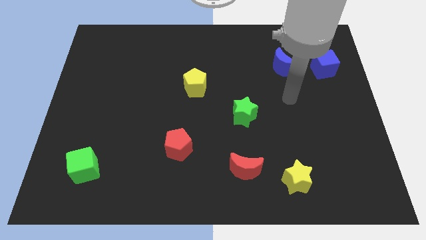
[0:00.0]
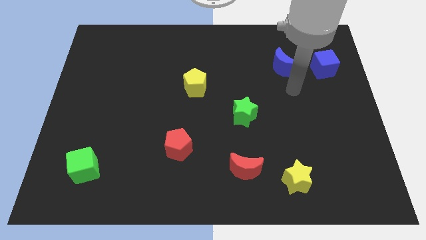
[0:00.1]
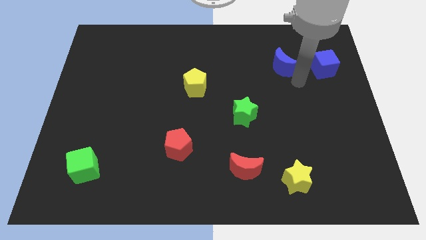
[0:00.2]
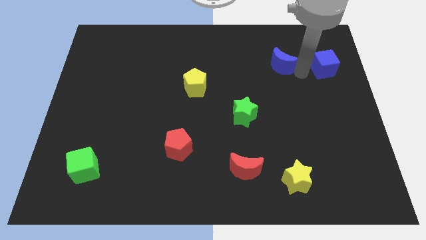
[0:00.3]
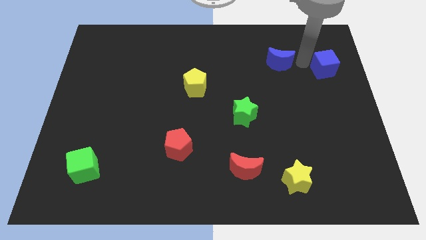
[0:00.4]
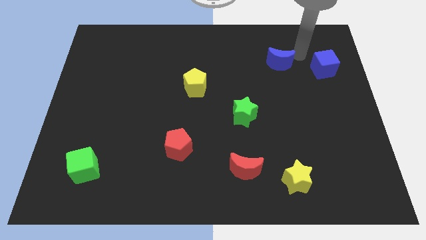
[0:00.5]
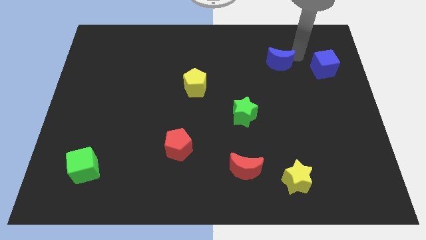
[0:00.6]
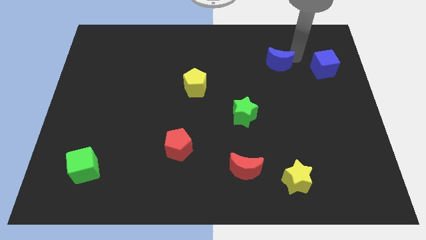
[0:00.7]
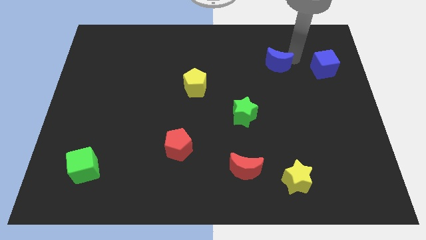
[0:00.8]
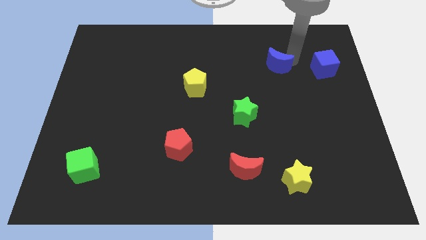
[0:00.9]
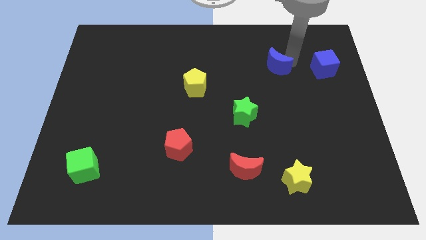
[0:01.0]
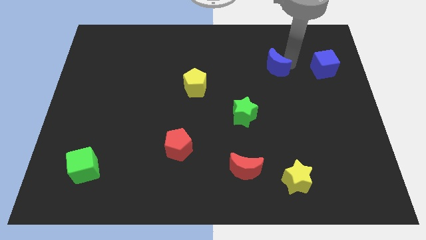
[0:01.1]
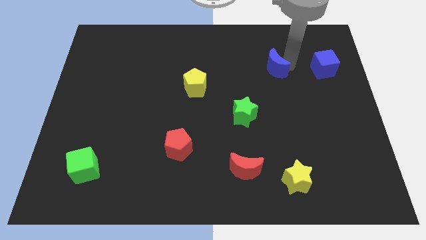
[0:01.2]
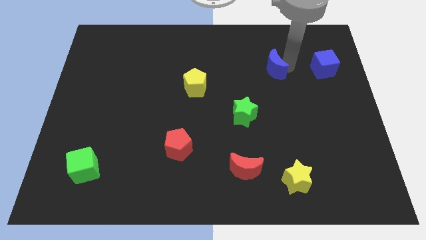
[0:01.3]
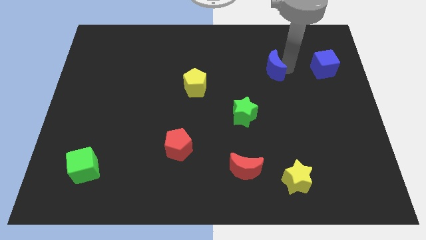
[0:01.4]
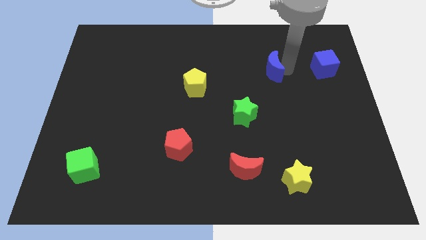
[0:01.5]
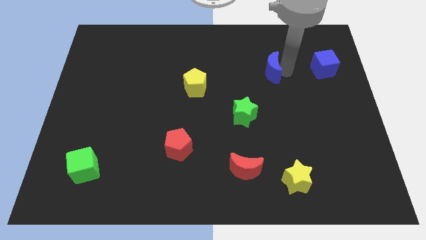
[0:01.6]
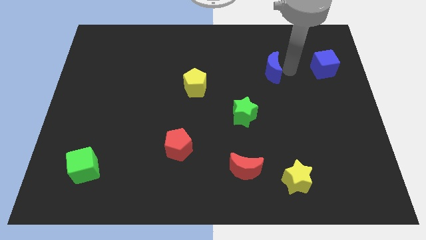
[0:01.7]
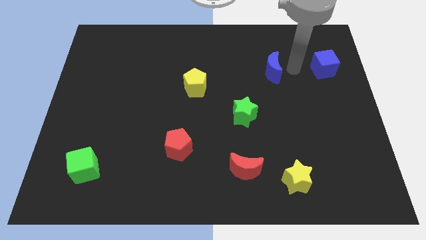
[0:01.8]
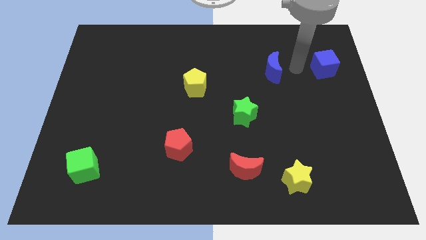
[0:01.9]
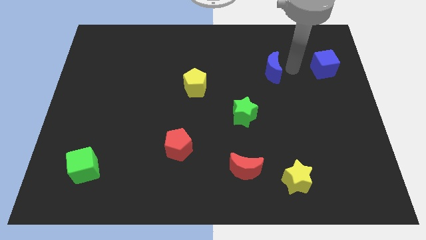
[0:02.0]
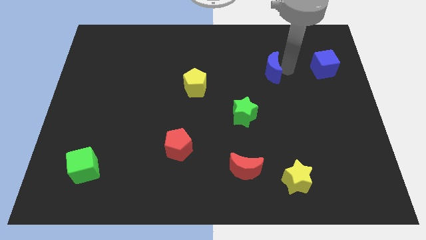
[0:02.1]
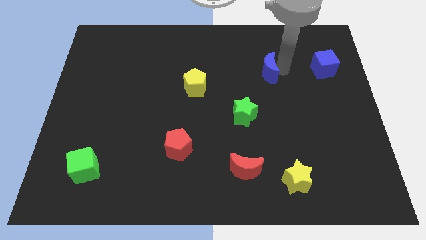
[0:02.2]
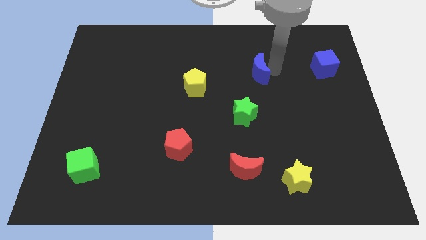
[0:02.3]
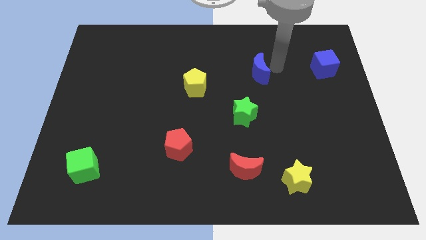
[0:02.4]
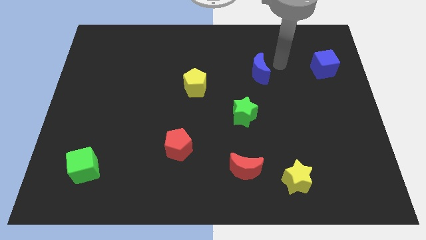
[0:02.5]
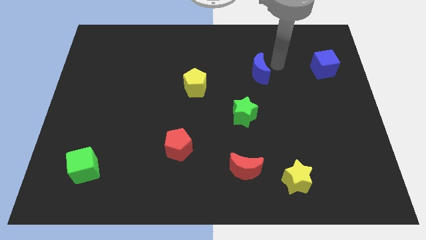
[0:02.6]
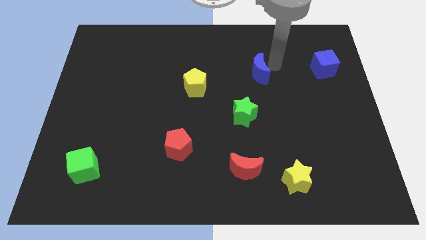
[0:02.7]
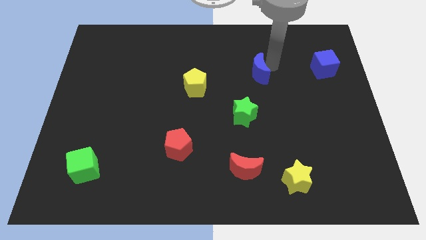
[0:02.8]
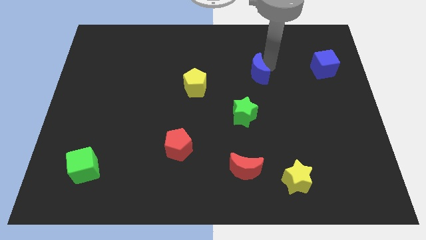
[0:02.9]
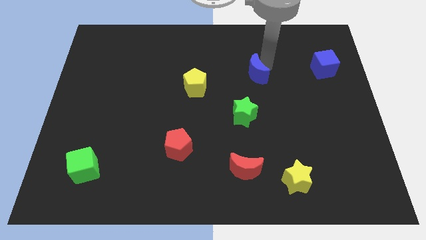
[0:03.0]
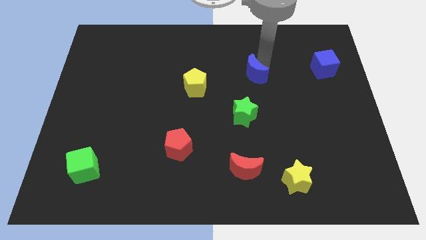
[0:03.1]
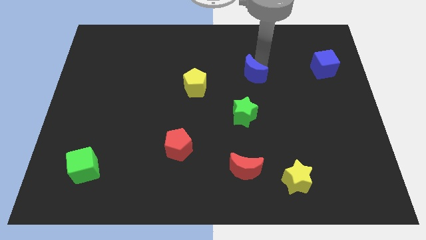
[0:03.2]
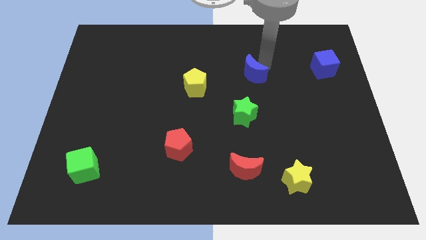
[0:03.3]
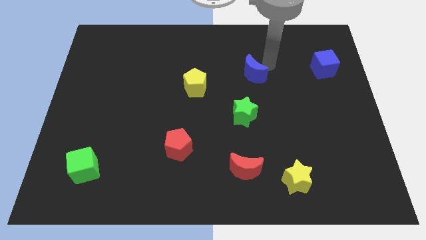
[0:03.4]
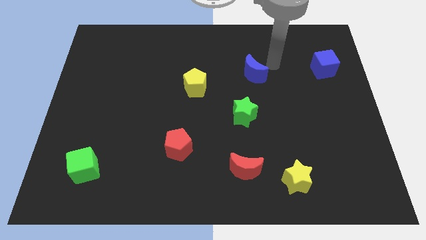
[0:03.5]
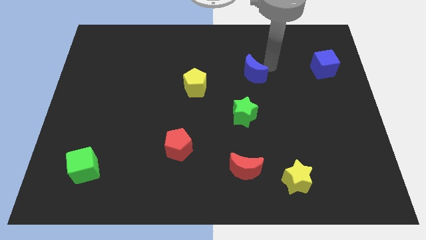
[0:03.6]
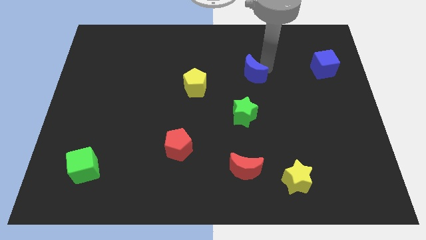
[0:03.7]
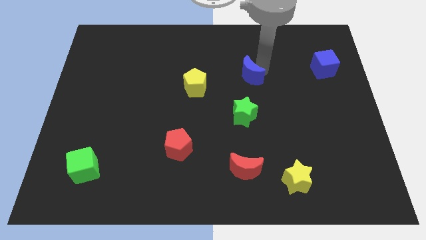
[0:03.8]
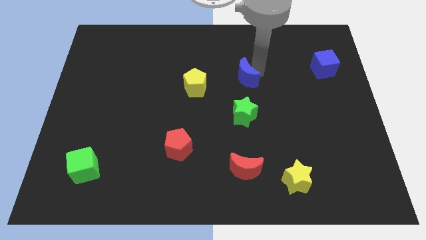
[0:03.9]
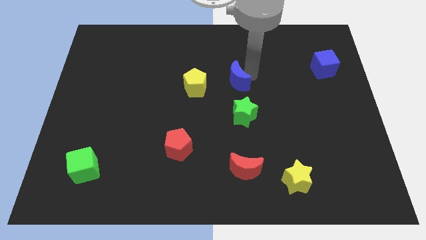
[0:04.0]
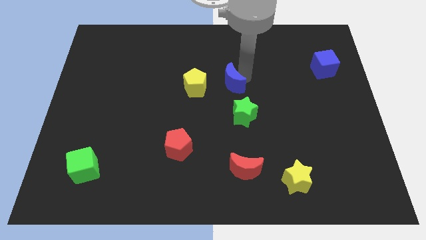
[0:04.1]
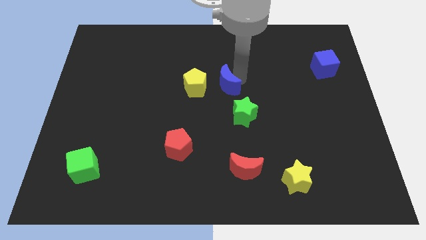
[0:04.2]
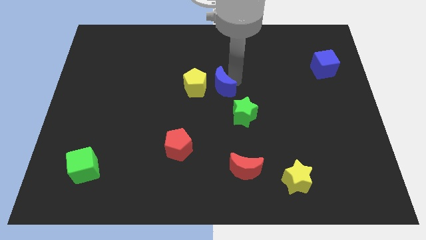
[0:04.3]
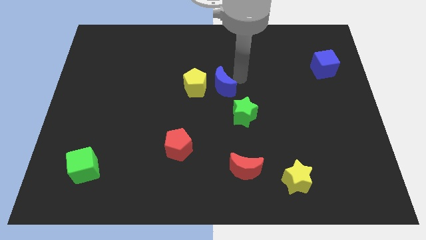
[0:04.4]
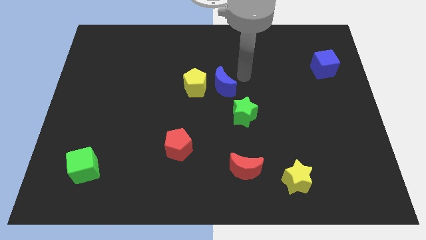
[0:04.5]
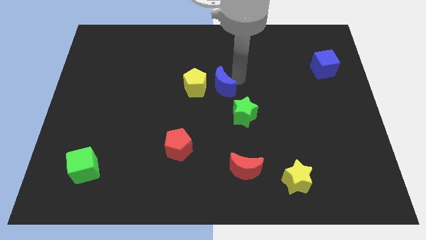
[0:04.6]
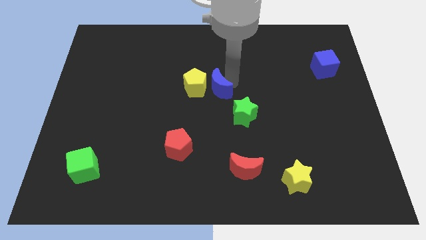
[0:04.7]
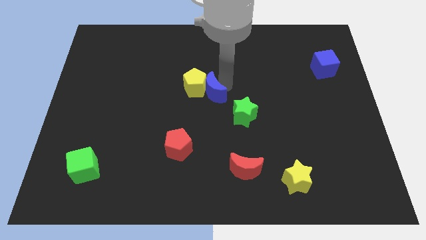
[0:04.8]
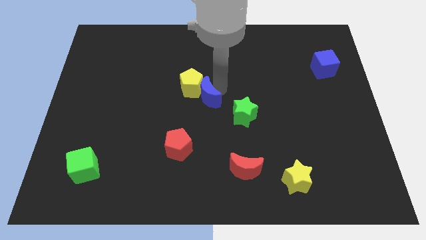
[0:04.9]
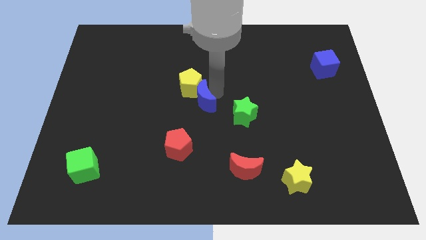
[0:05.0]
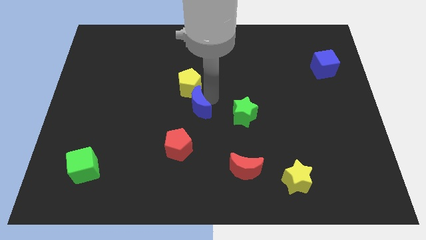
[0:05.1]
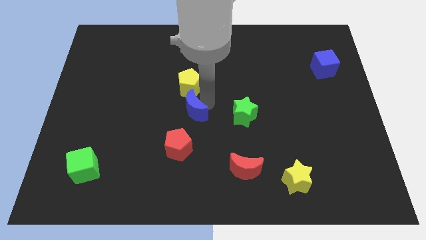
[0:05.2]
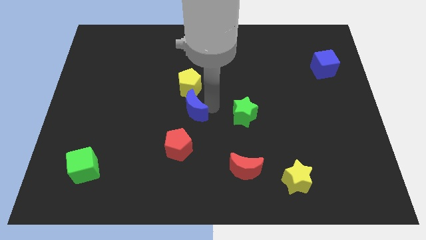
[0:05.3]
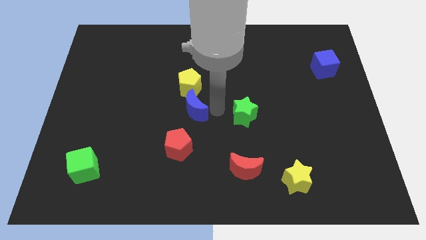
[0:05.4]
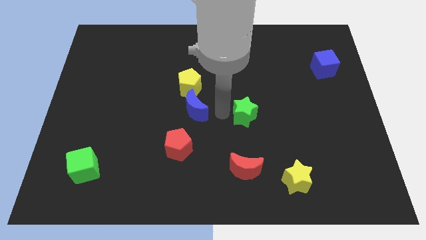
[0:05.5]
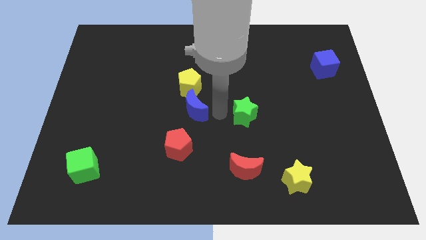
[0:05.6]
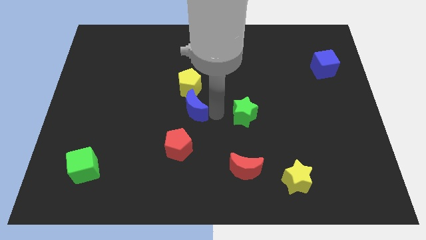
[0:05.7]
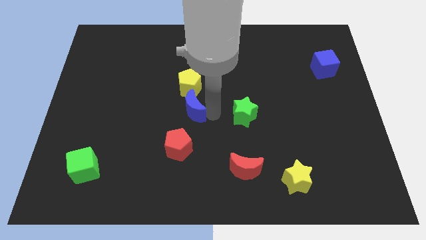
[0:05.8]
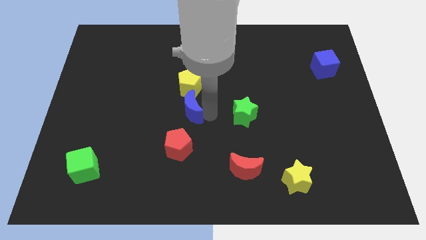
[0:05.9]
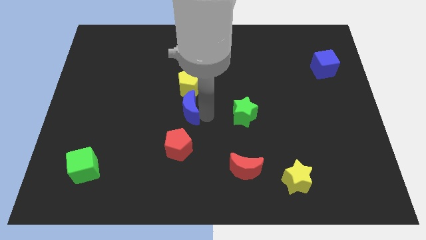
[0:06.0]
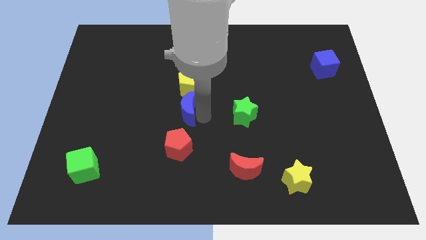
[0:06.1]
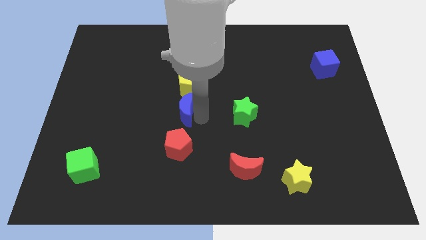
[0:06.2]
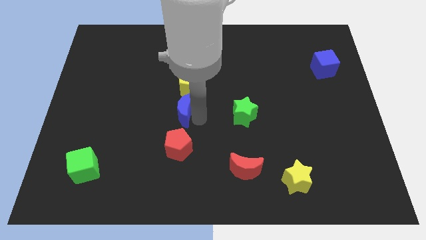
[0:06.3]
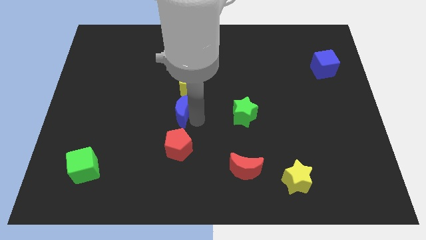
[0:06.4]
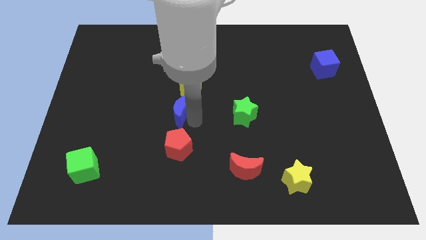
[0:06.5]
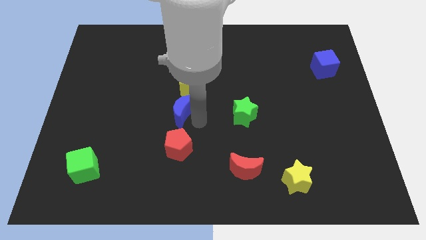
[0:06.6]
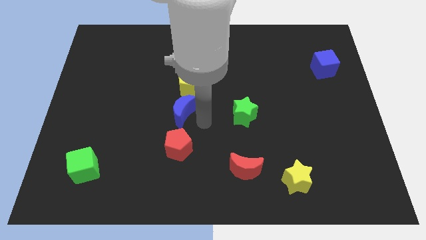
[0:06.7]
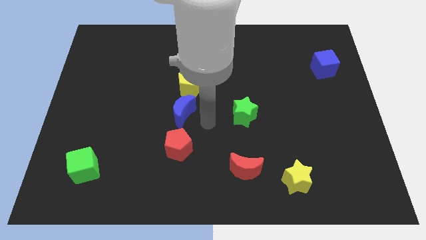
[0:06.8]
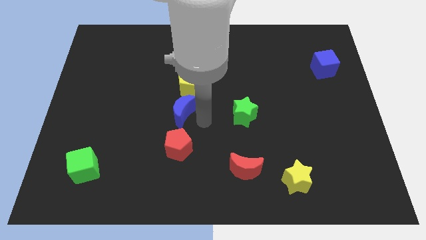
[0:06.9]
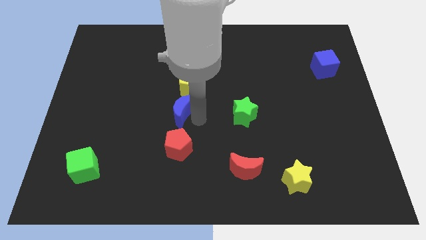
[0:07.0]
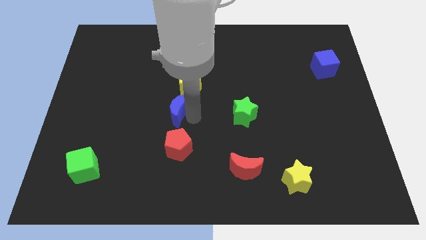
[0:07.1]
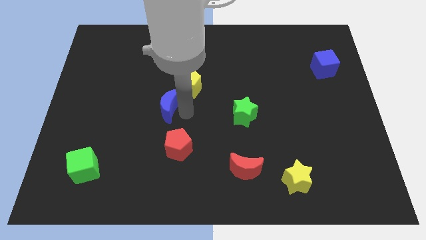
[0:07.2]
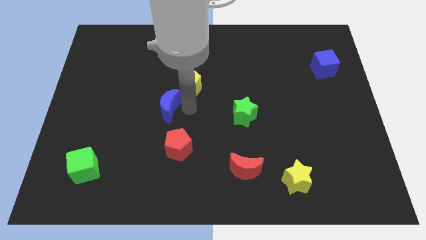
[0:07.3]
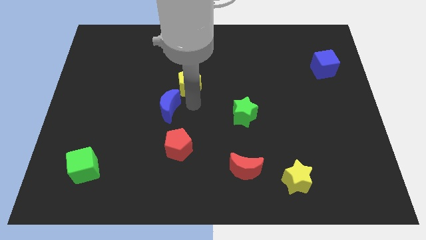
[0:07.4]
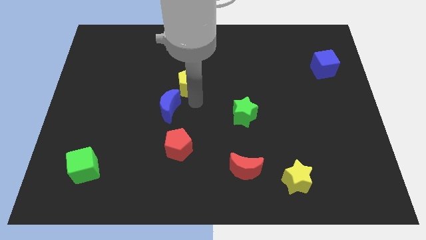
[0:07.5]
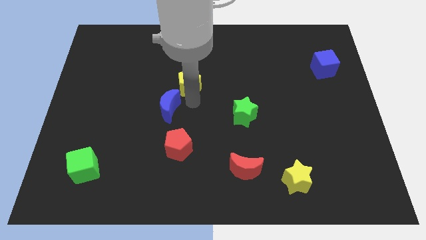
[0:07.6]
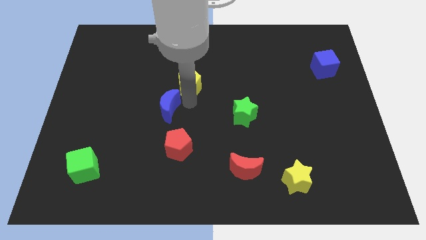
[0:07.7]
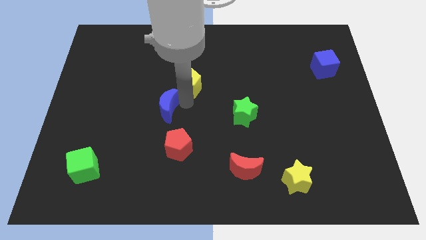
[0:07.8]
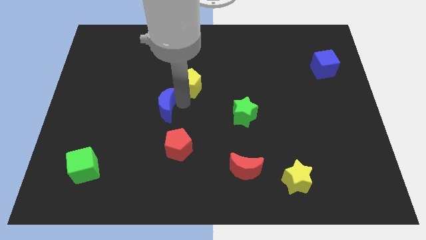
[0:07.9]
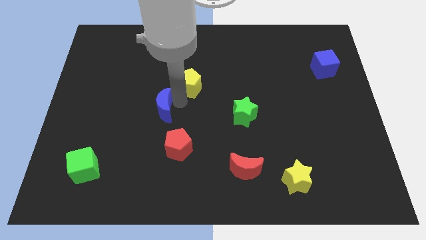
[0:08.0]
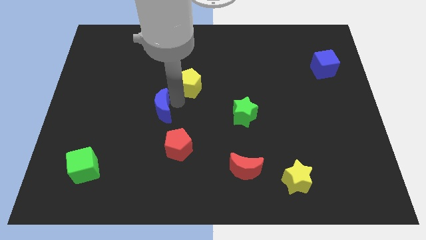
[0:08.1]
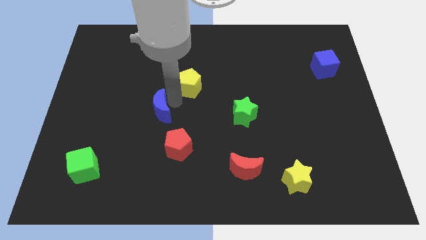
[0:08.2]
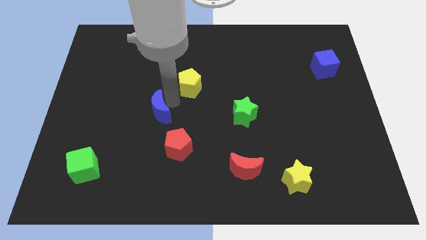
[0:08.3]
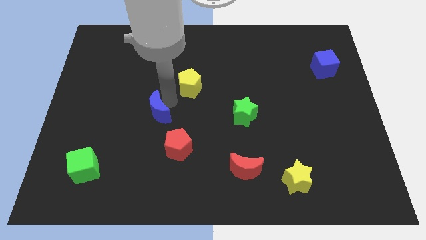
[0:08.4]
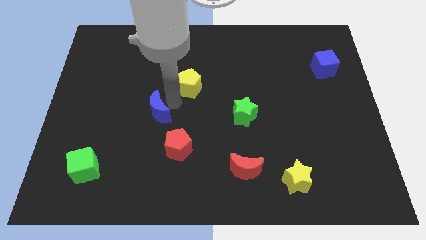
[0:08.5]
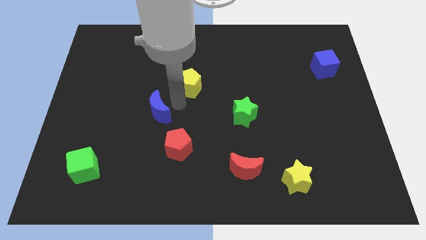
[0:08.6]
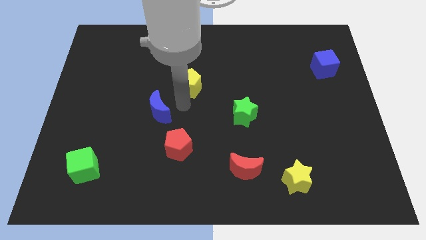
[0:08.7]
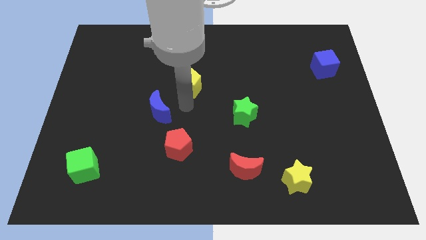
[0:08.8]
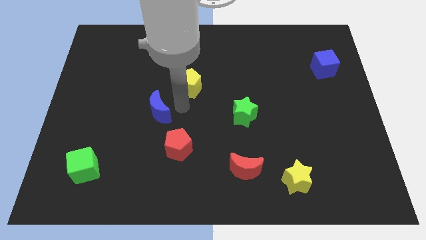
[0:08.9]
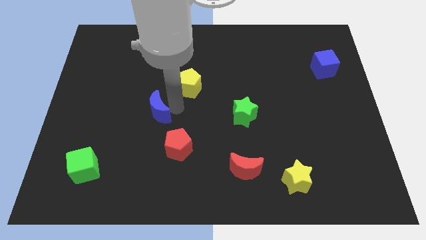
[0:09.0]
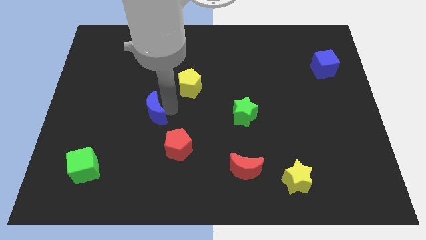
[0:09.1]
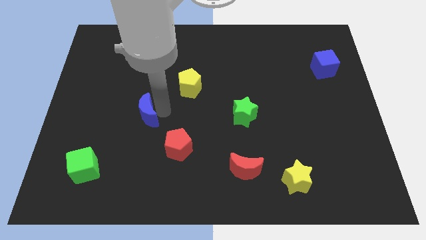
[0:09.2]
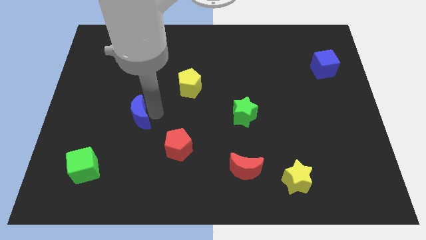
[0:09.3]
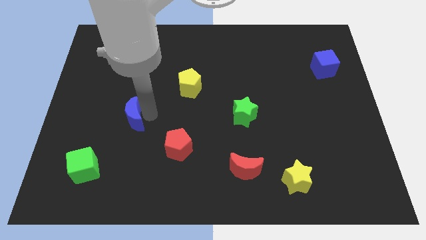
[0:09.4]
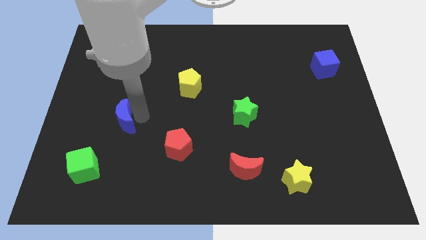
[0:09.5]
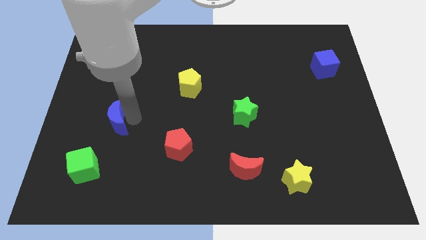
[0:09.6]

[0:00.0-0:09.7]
put the blue moon to the top of the green cube
